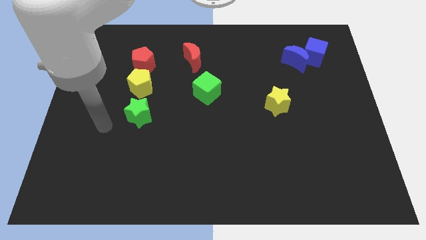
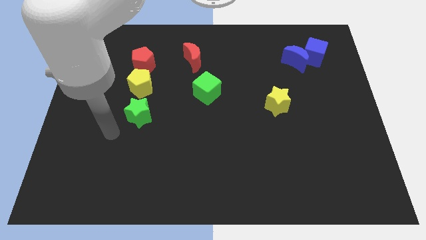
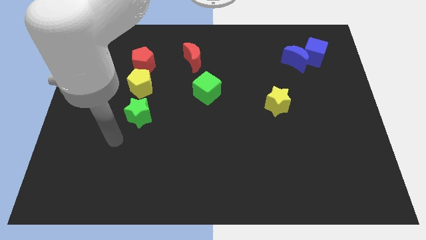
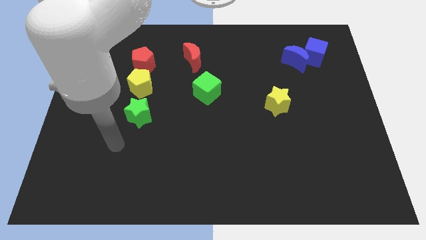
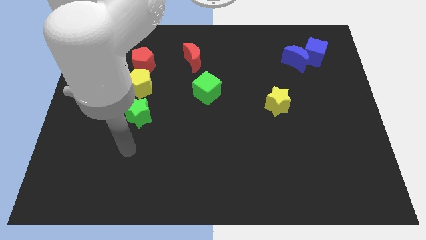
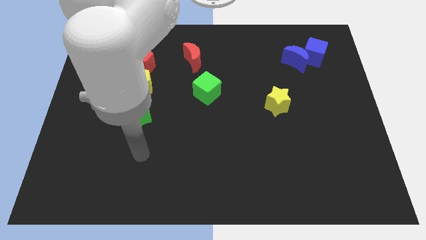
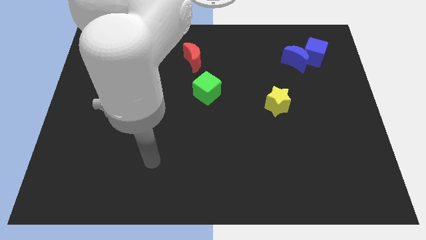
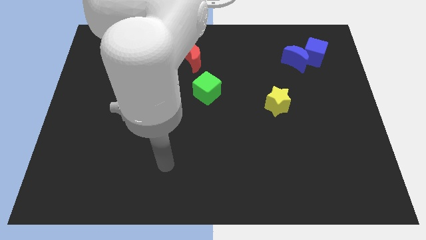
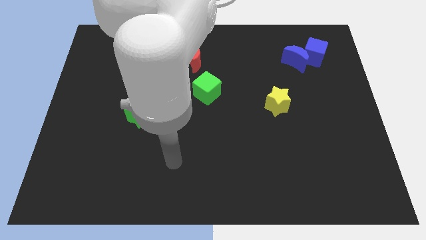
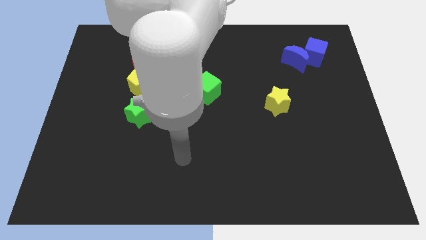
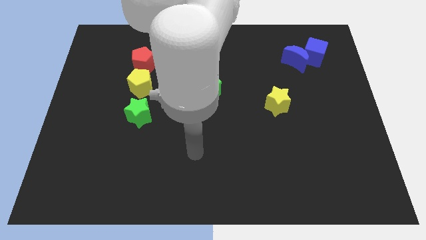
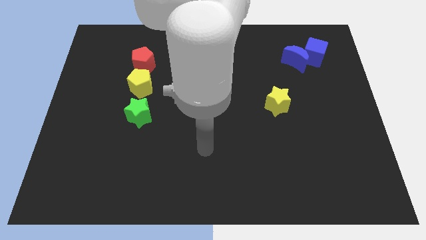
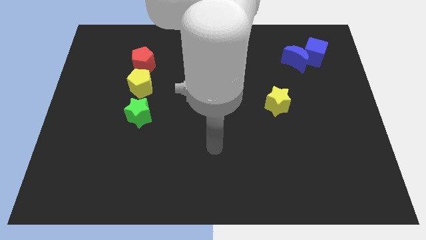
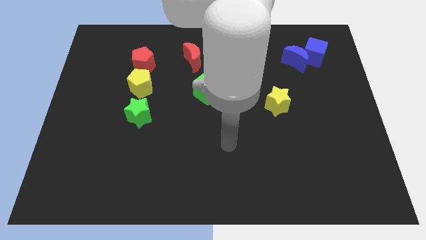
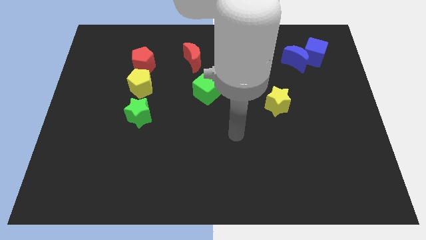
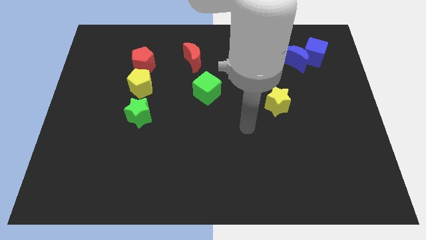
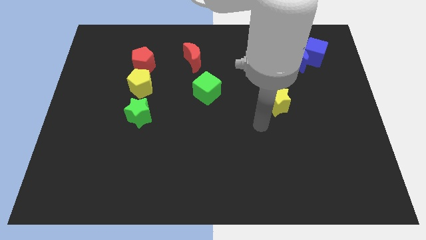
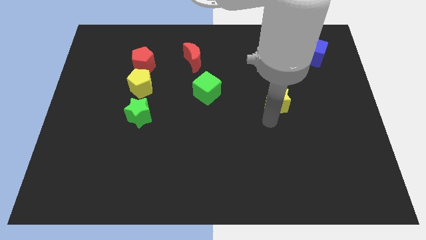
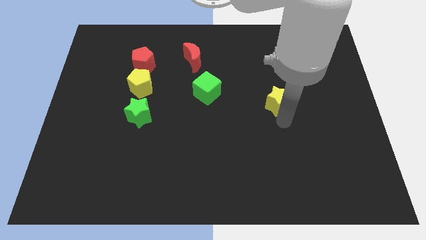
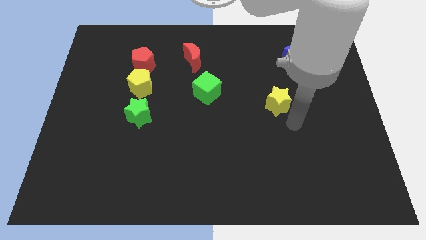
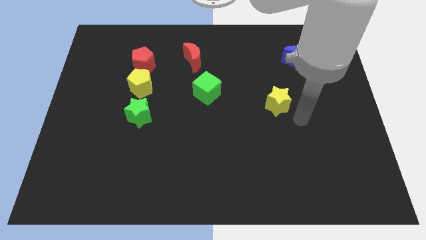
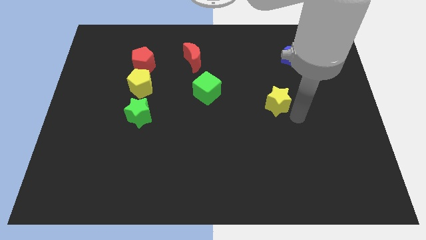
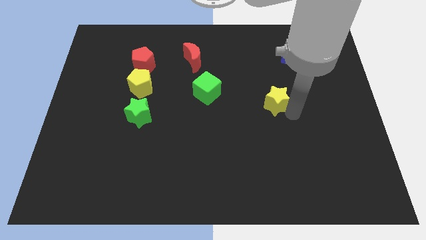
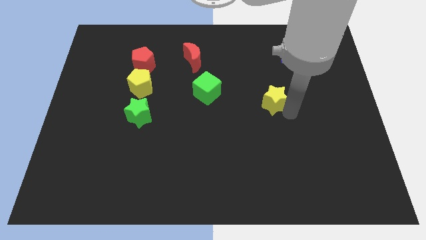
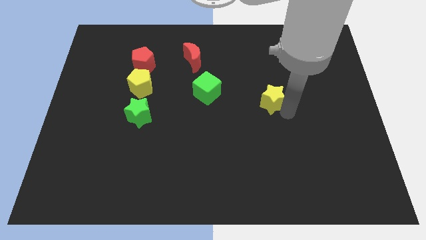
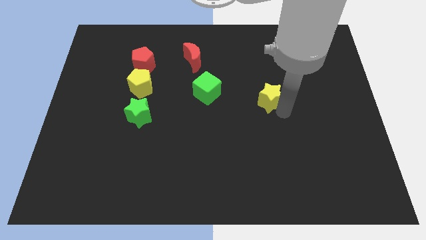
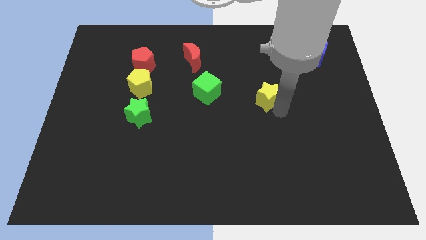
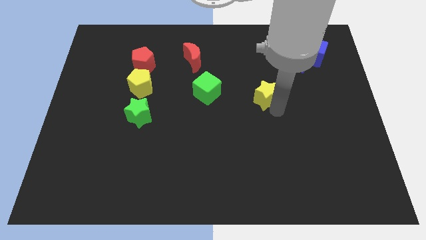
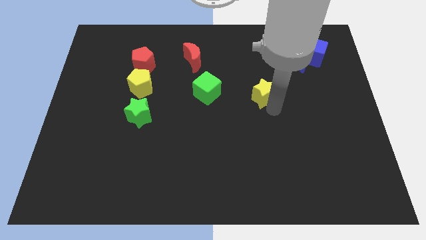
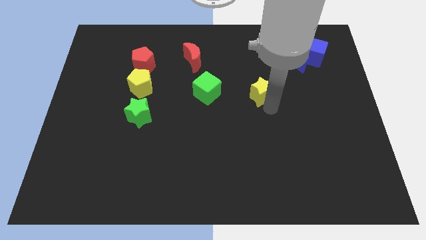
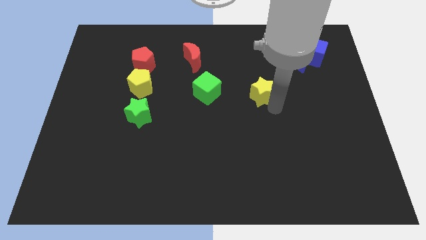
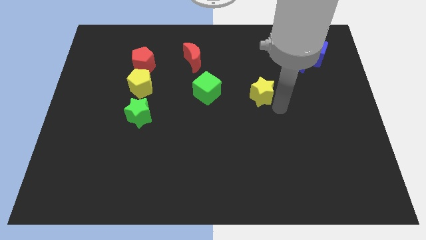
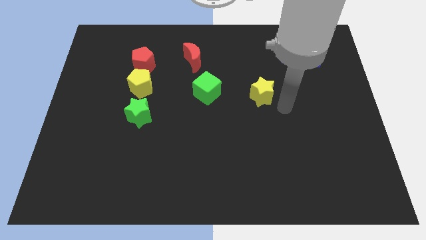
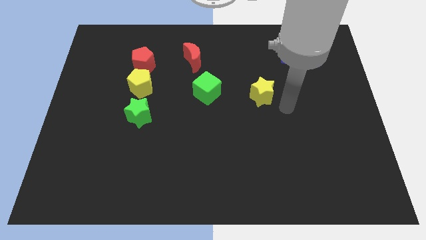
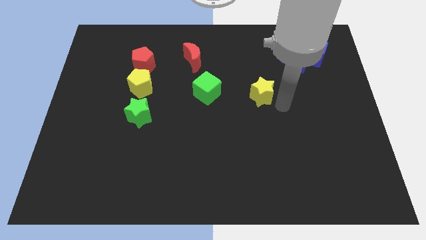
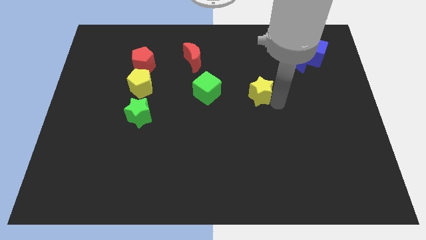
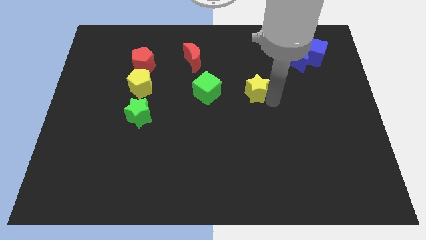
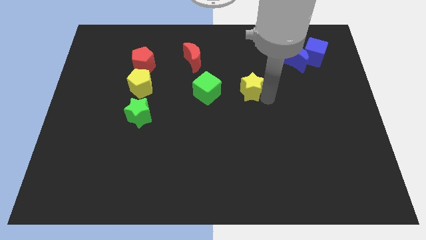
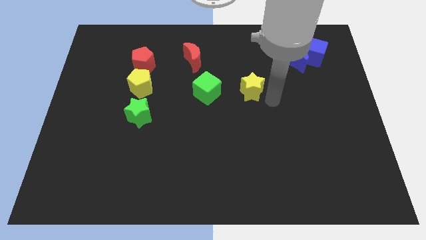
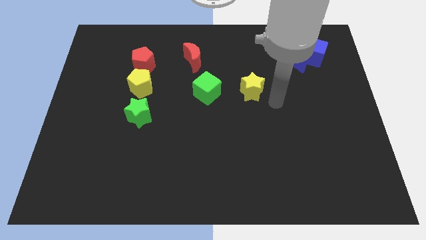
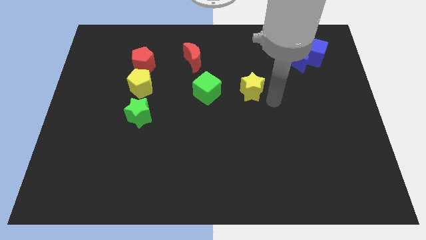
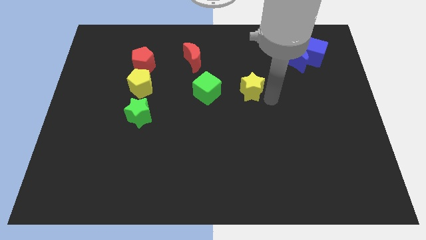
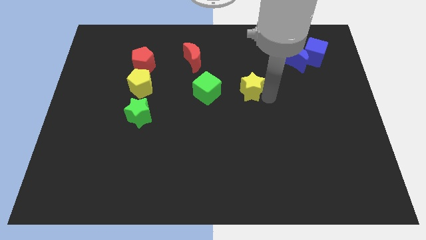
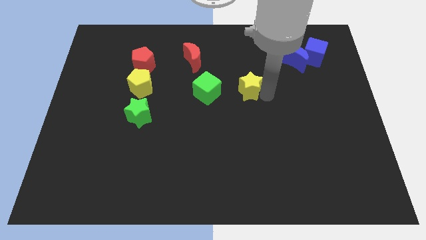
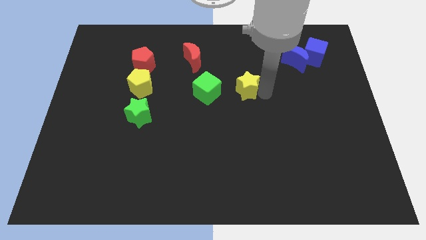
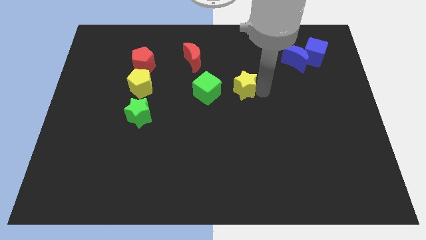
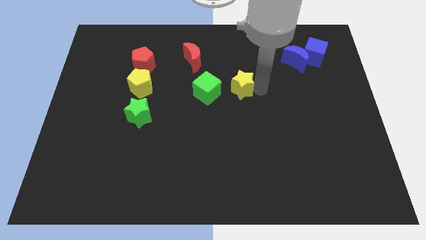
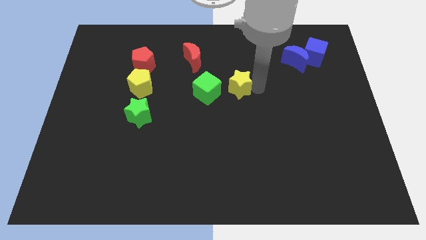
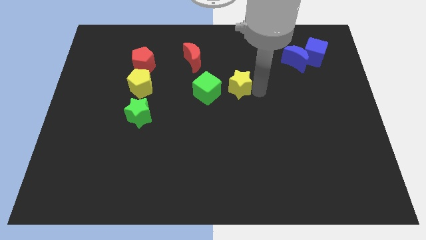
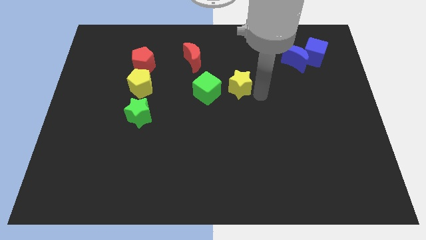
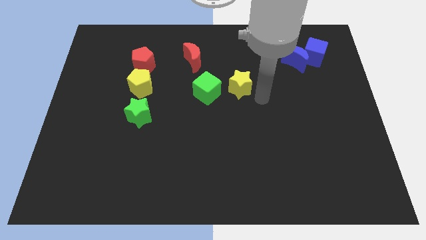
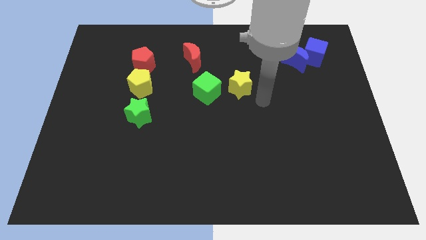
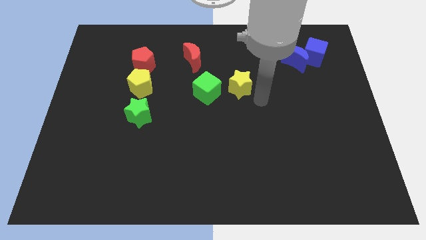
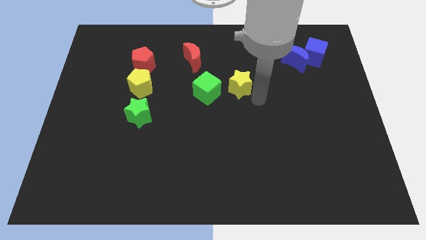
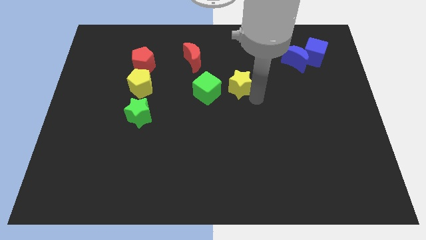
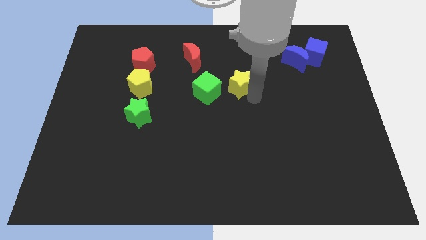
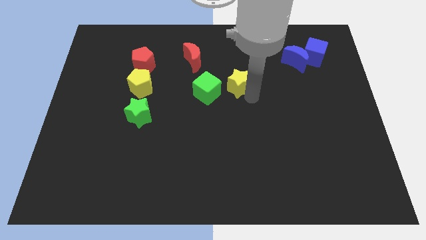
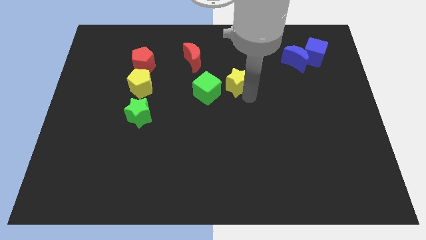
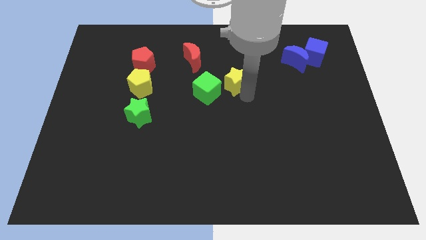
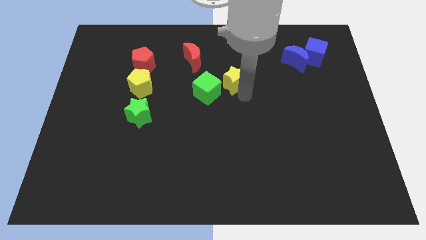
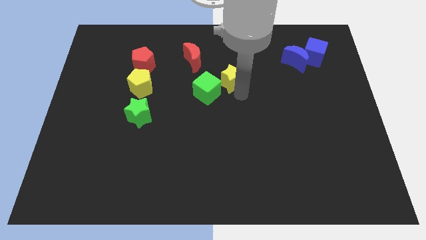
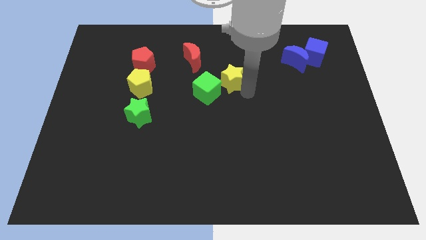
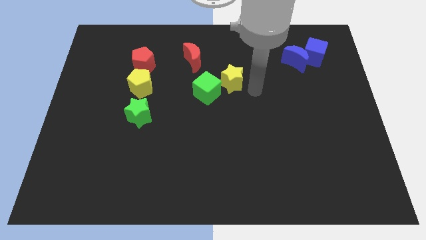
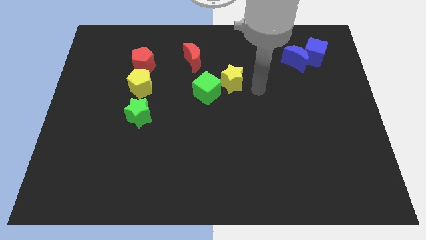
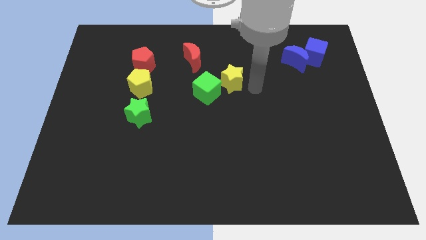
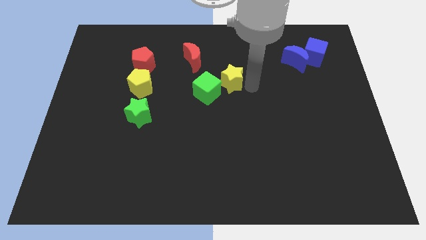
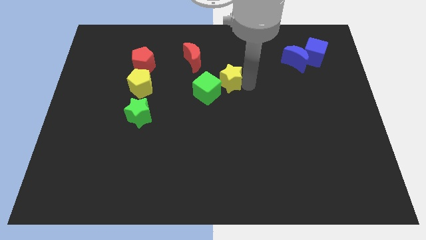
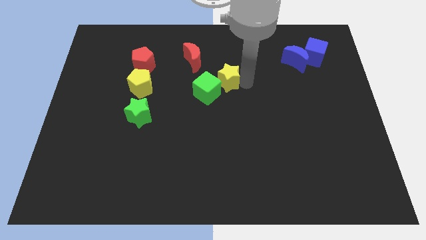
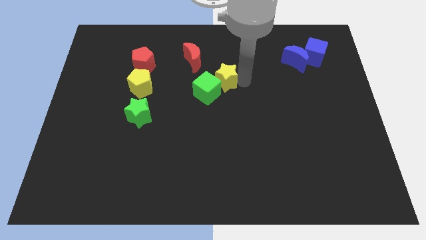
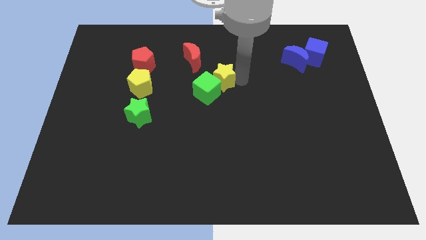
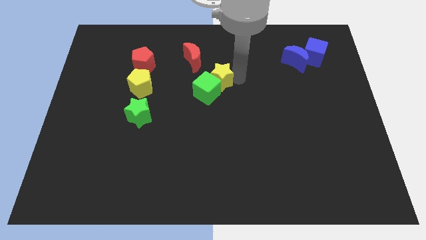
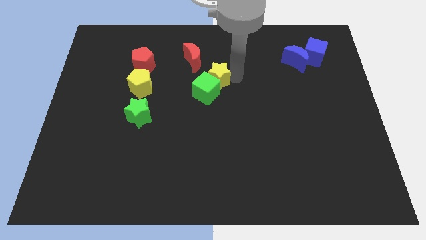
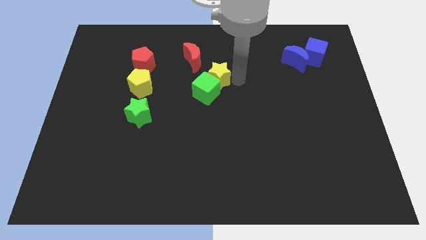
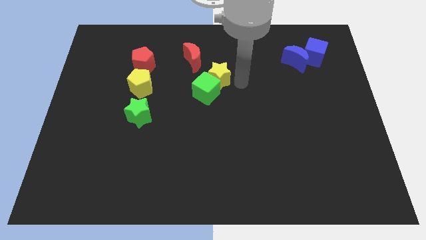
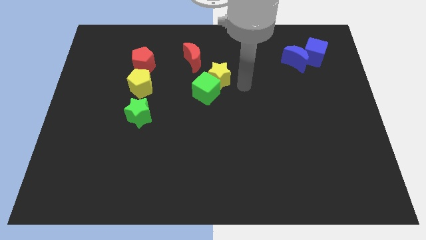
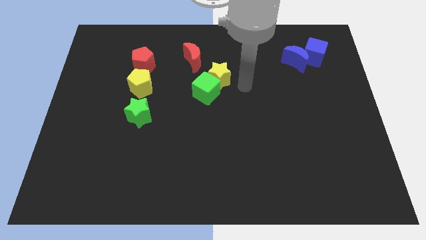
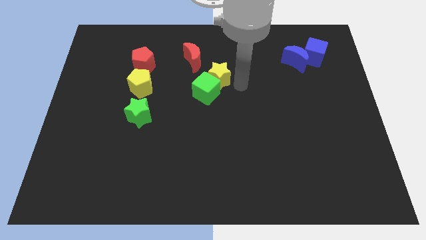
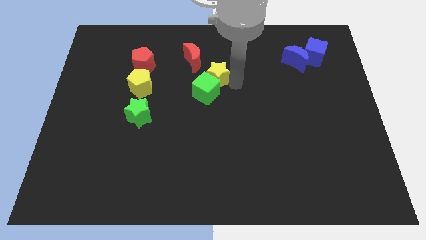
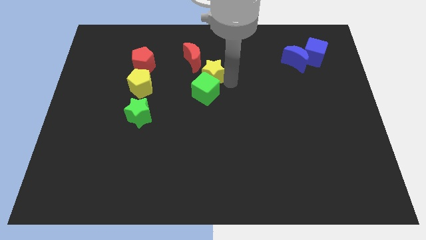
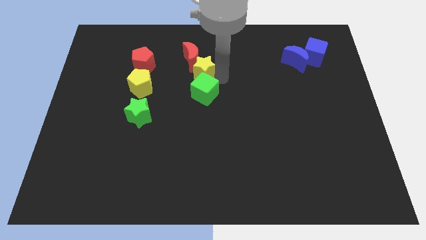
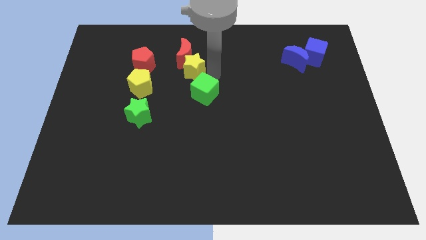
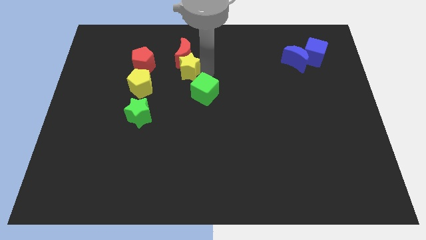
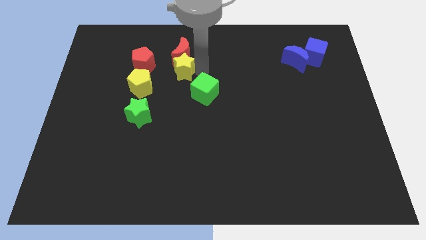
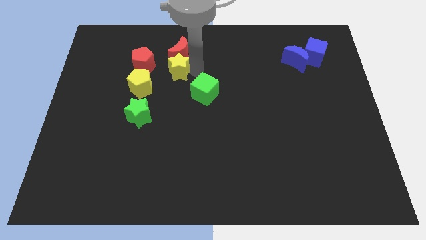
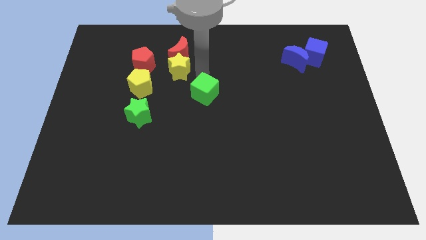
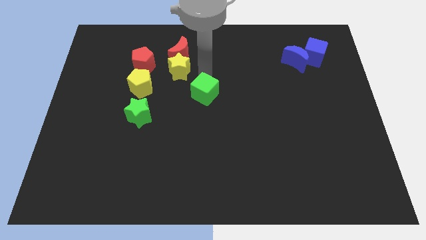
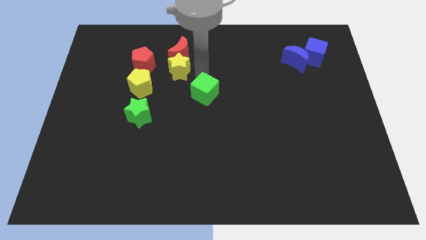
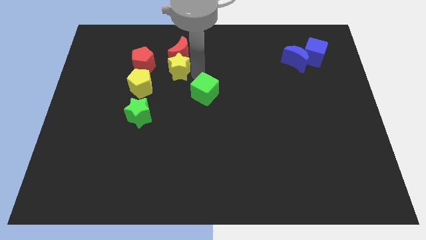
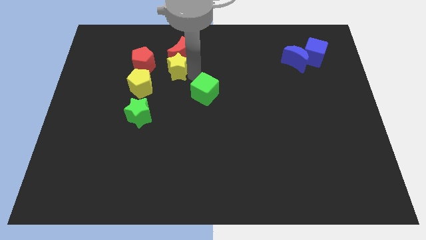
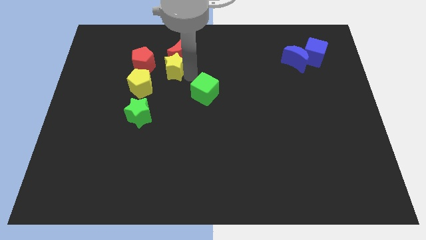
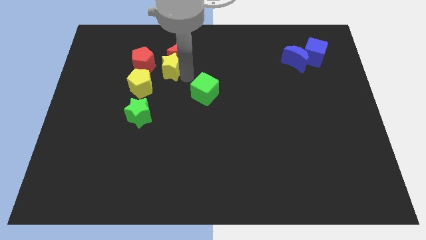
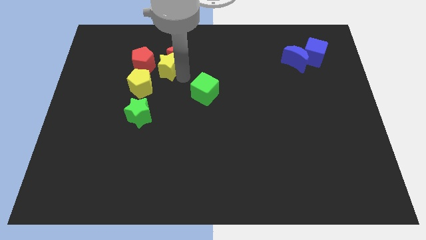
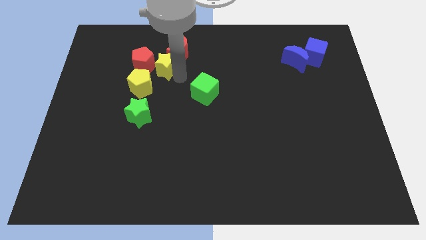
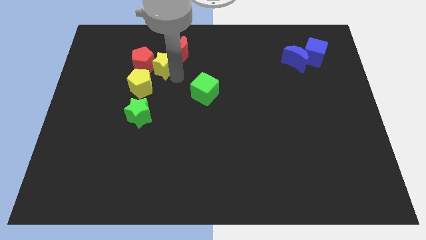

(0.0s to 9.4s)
move the yellow star to the red pentagon
